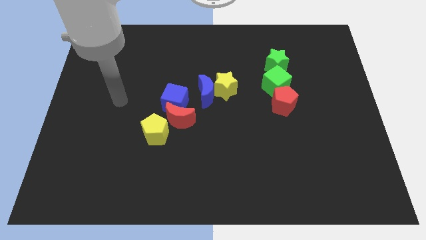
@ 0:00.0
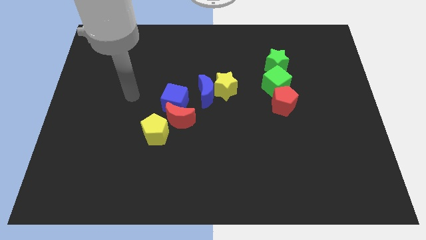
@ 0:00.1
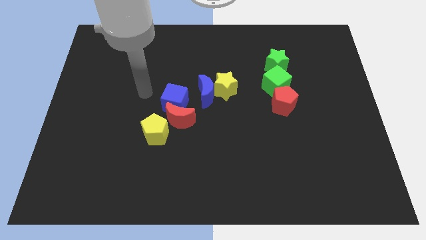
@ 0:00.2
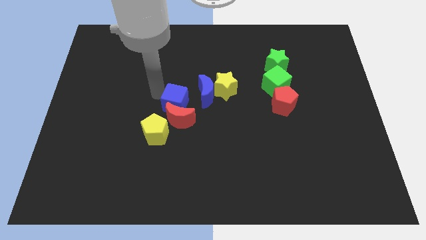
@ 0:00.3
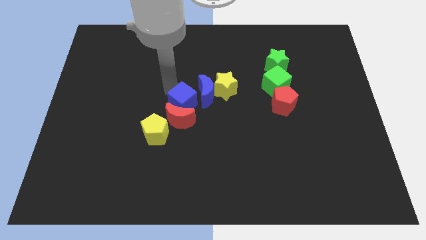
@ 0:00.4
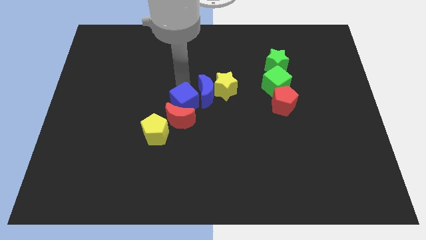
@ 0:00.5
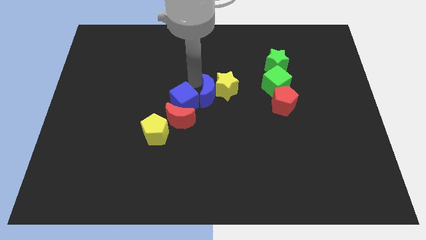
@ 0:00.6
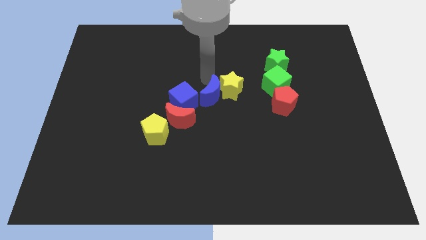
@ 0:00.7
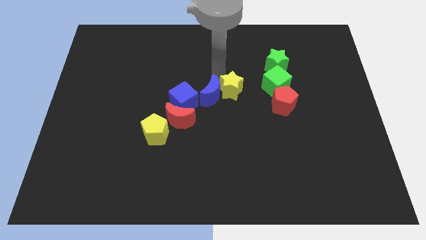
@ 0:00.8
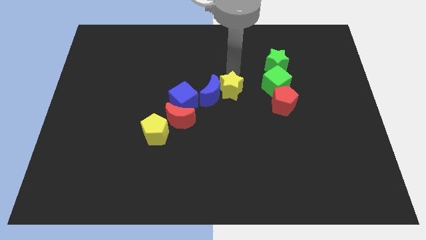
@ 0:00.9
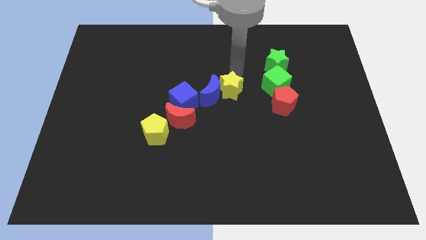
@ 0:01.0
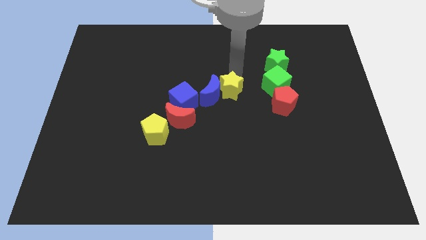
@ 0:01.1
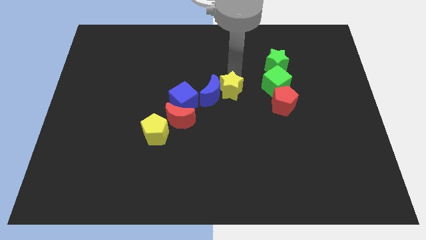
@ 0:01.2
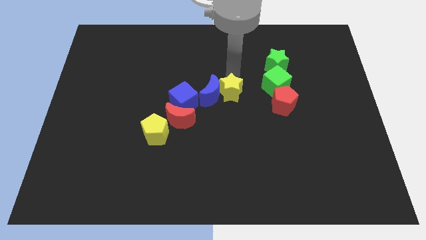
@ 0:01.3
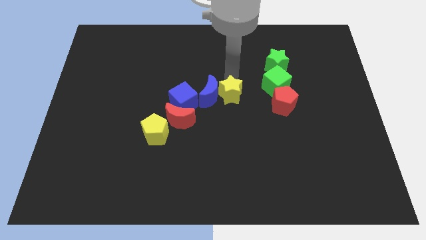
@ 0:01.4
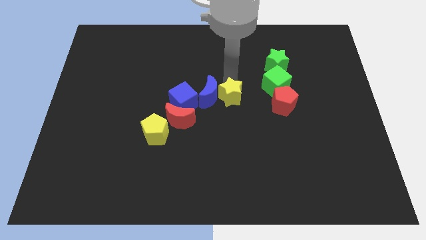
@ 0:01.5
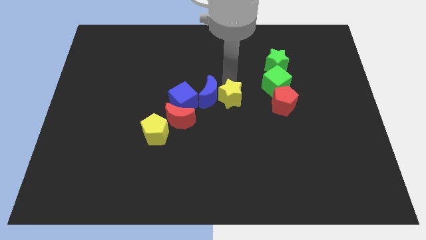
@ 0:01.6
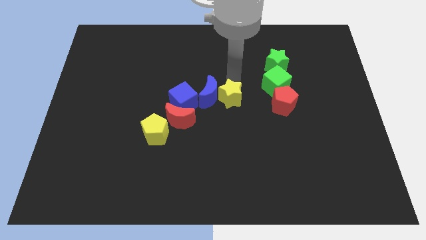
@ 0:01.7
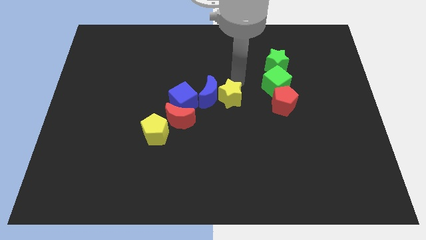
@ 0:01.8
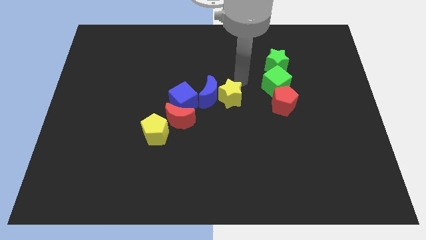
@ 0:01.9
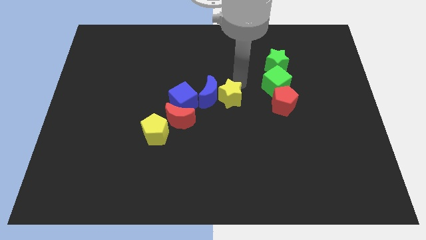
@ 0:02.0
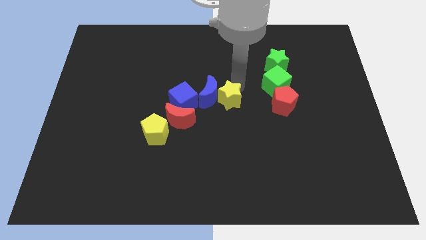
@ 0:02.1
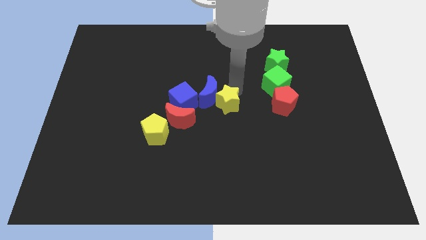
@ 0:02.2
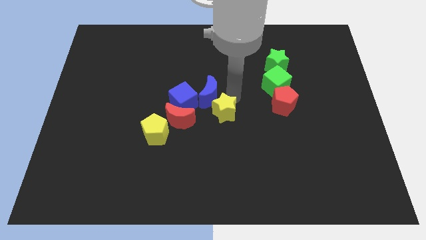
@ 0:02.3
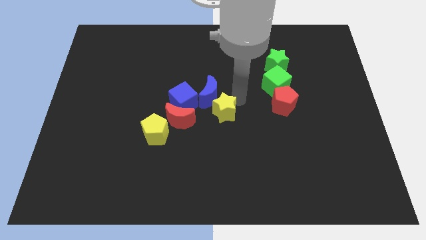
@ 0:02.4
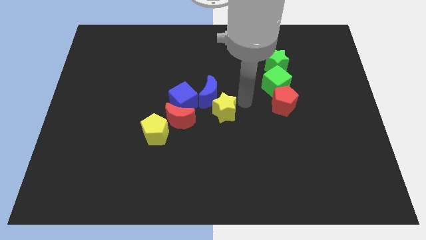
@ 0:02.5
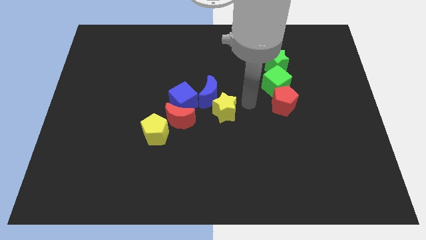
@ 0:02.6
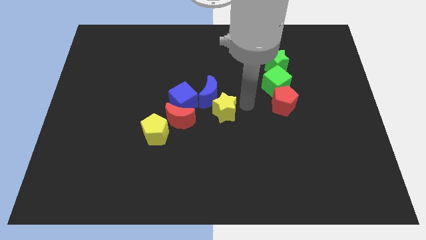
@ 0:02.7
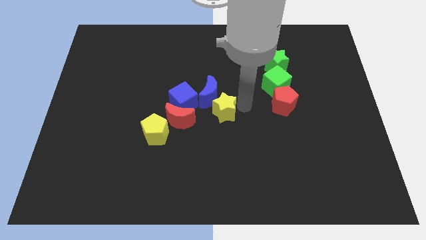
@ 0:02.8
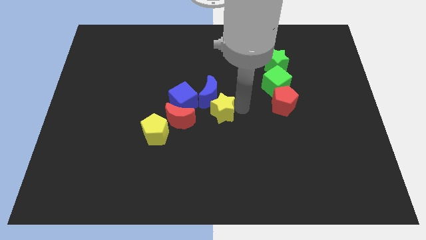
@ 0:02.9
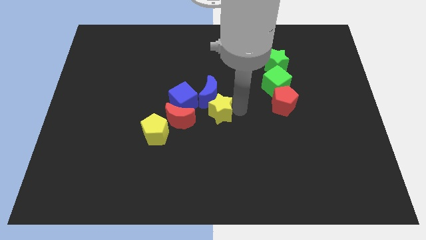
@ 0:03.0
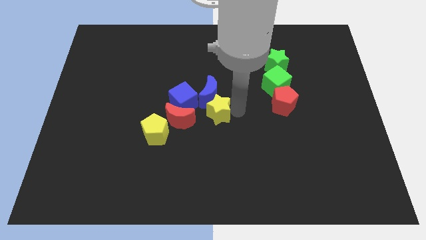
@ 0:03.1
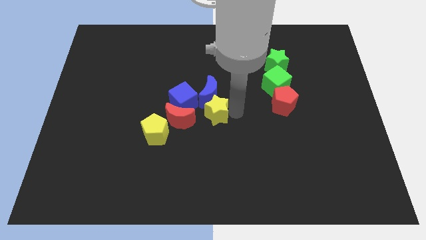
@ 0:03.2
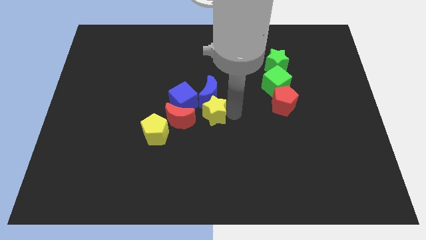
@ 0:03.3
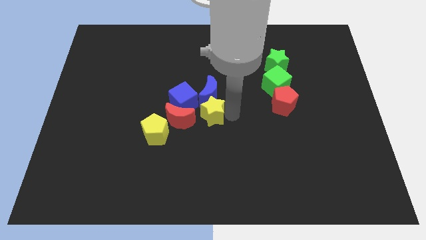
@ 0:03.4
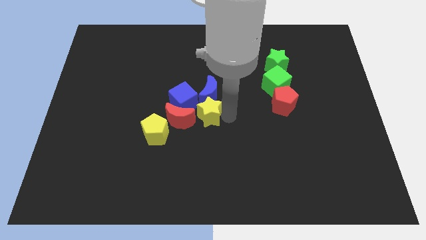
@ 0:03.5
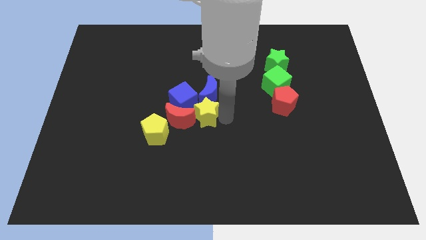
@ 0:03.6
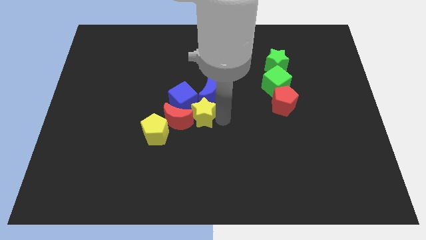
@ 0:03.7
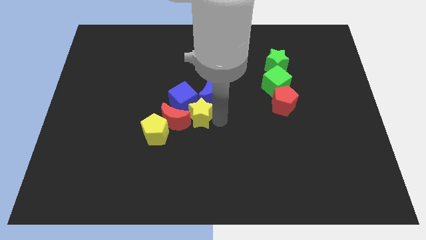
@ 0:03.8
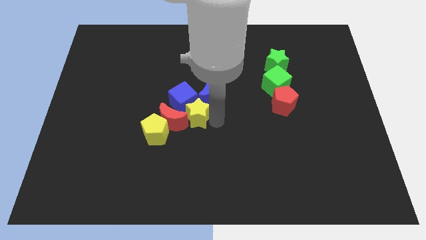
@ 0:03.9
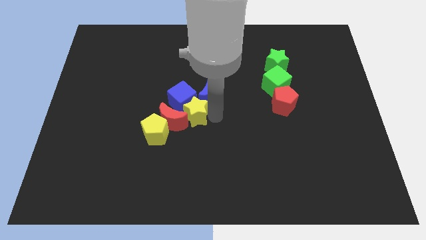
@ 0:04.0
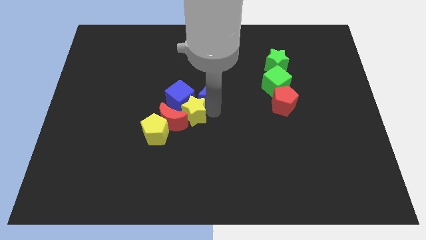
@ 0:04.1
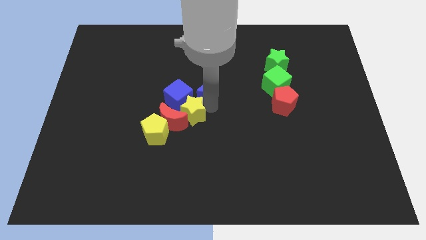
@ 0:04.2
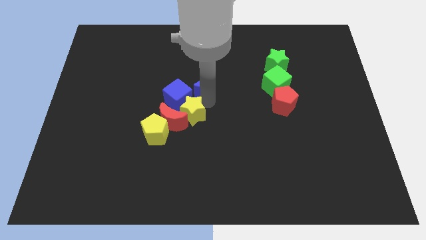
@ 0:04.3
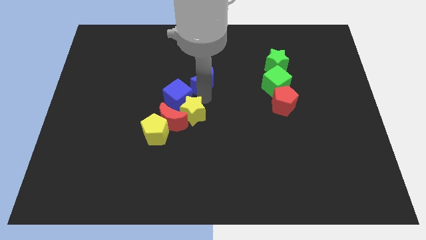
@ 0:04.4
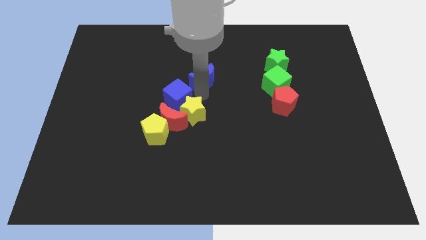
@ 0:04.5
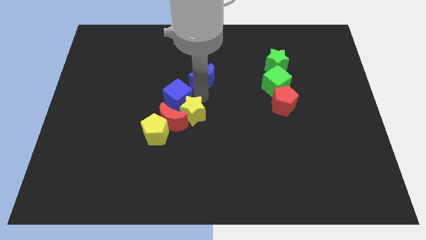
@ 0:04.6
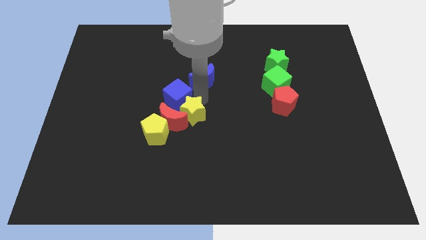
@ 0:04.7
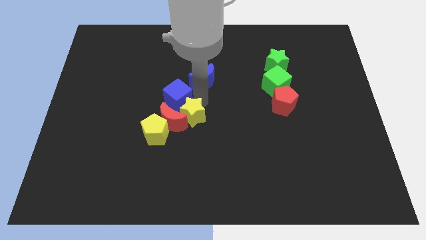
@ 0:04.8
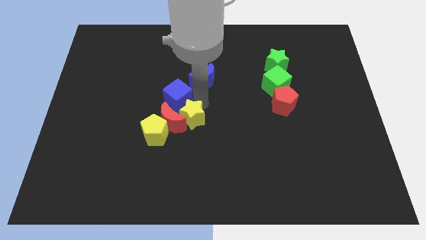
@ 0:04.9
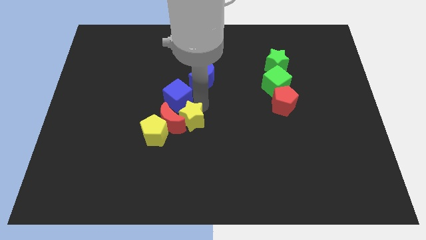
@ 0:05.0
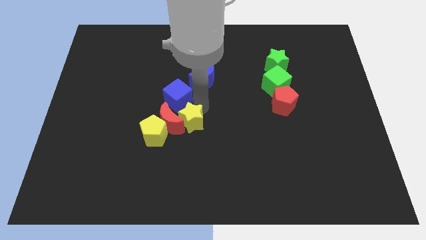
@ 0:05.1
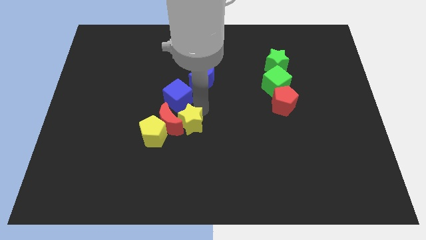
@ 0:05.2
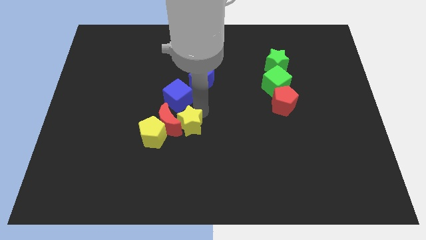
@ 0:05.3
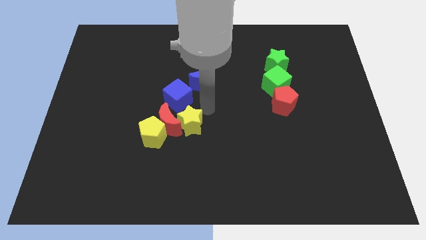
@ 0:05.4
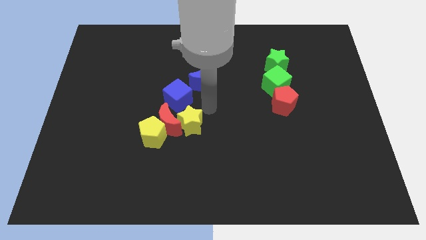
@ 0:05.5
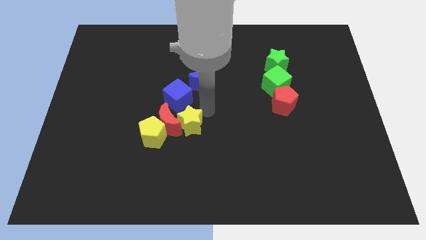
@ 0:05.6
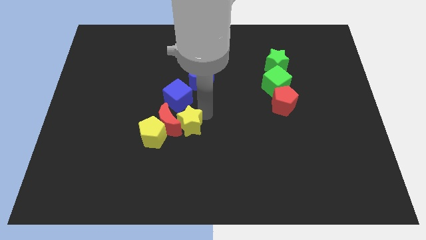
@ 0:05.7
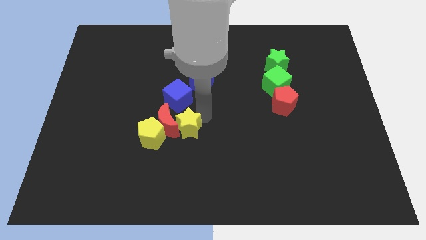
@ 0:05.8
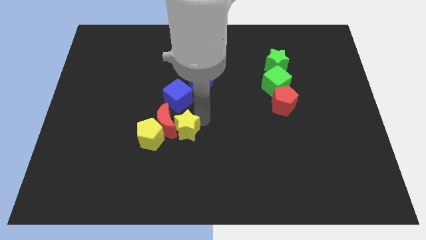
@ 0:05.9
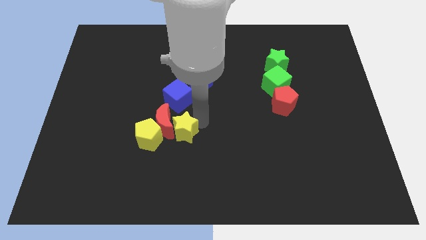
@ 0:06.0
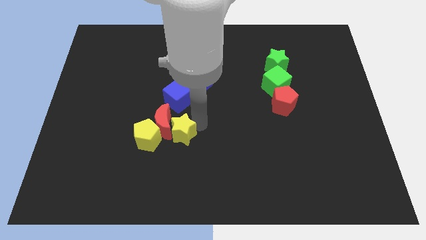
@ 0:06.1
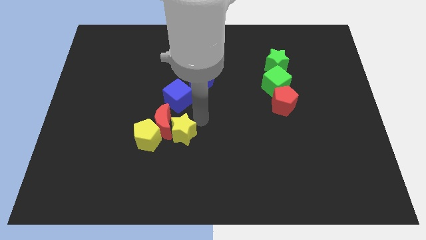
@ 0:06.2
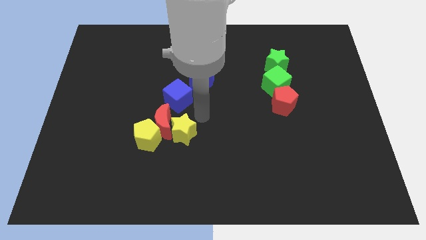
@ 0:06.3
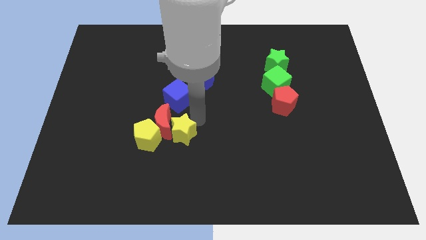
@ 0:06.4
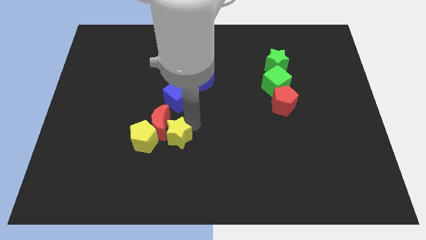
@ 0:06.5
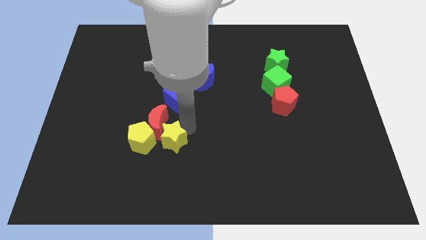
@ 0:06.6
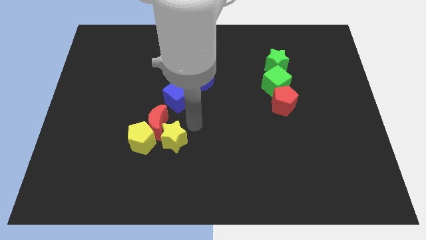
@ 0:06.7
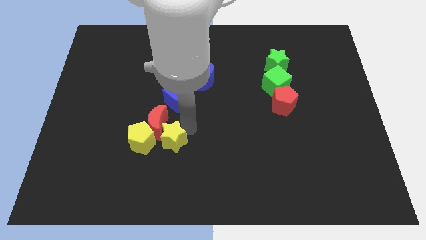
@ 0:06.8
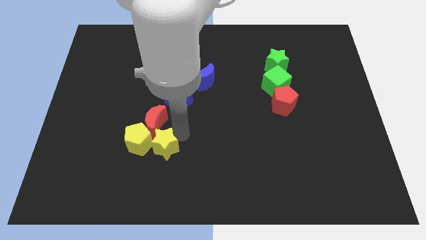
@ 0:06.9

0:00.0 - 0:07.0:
slide the yellow star diagonally down and left

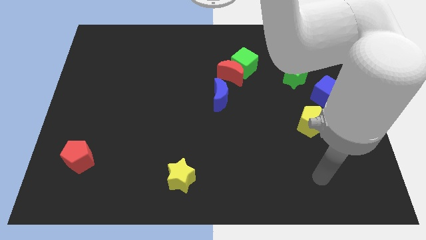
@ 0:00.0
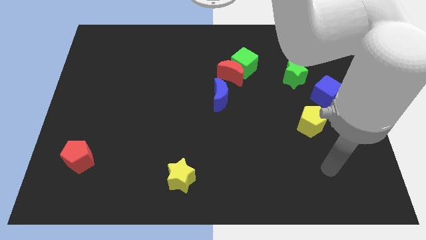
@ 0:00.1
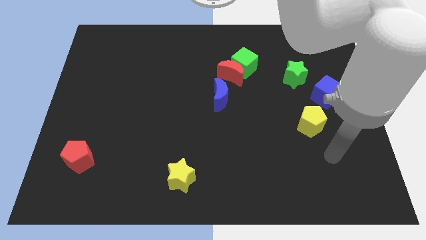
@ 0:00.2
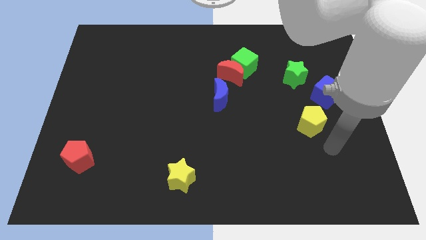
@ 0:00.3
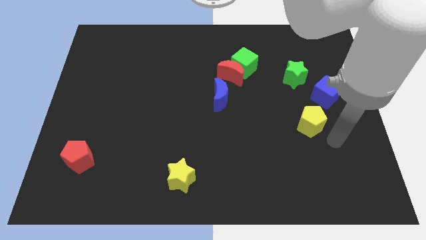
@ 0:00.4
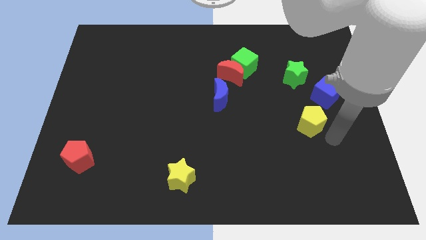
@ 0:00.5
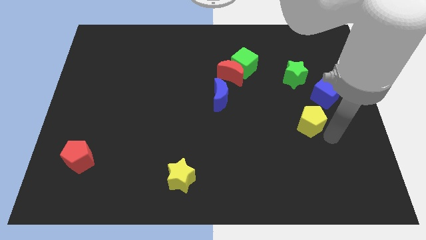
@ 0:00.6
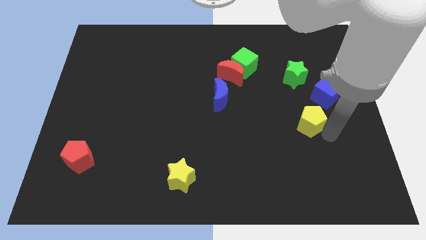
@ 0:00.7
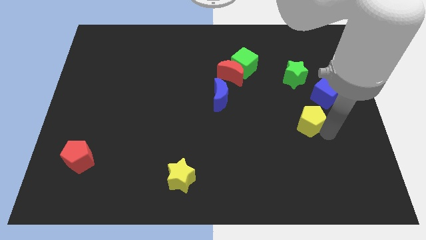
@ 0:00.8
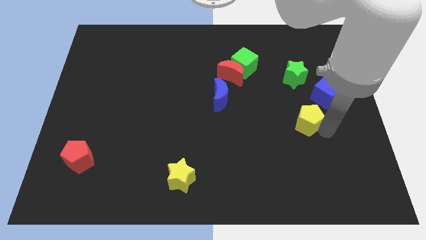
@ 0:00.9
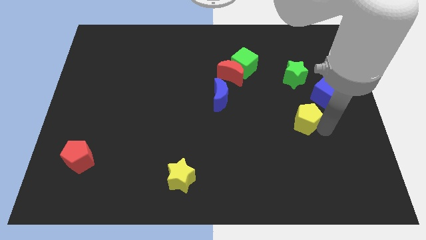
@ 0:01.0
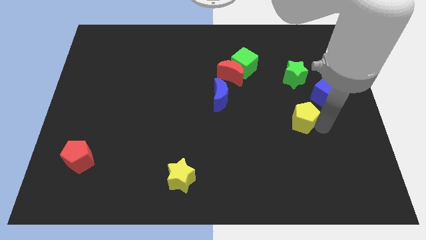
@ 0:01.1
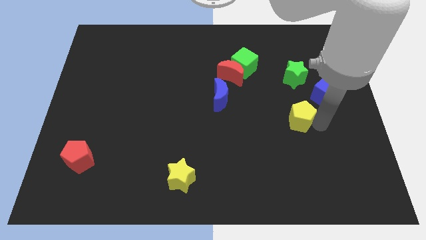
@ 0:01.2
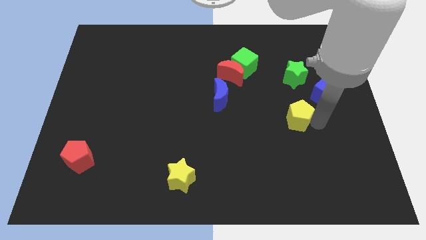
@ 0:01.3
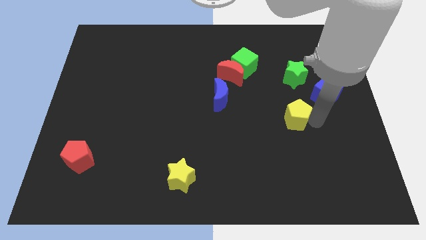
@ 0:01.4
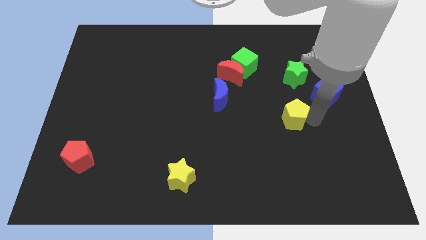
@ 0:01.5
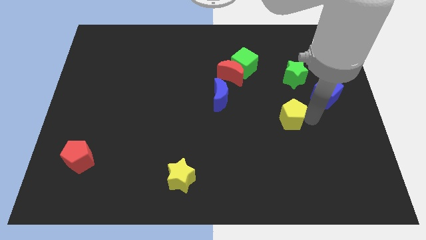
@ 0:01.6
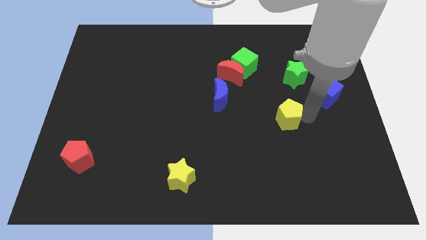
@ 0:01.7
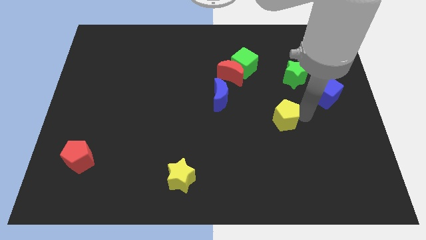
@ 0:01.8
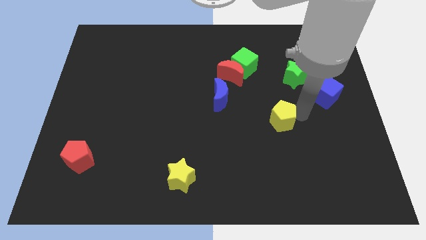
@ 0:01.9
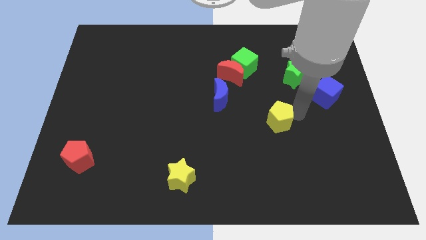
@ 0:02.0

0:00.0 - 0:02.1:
push the yellow pentagon a bit left
